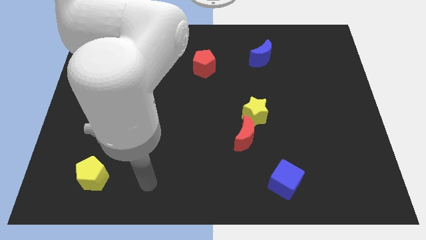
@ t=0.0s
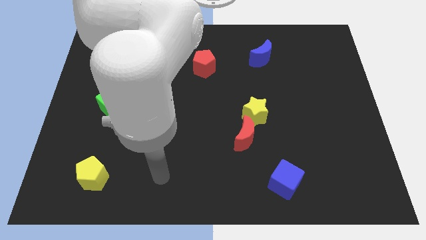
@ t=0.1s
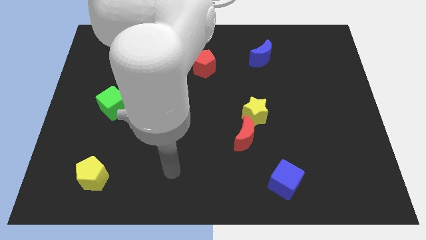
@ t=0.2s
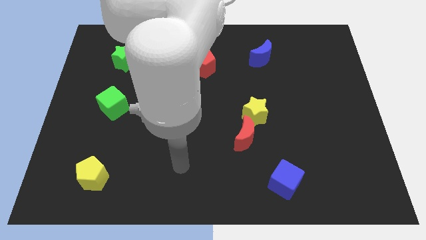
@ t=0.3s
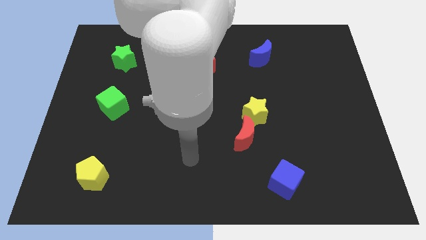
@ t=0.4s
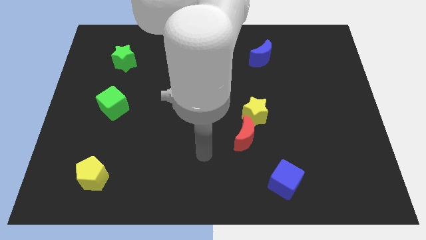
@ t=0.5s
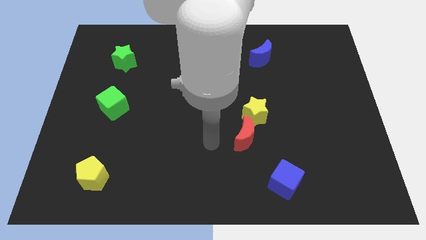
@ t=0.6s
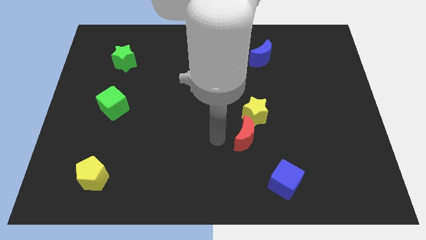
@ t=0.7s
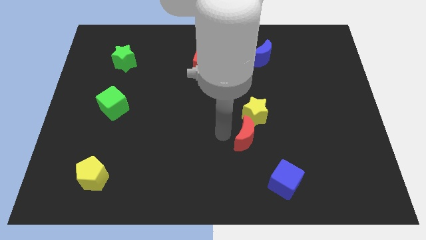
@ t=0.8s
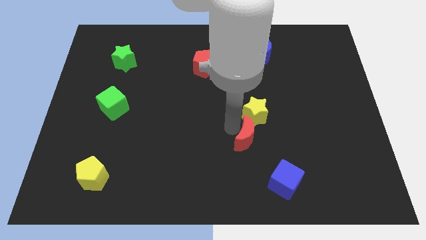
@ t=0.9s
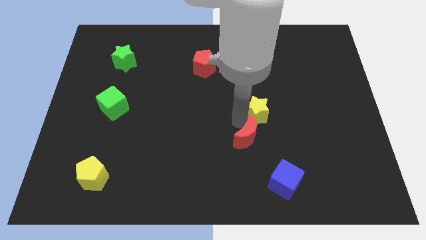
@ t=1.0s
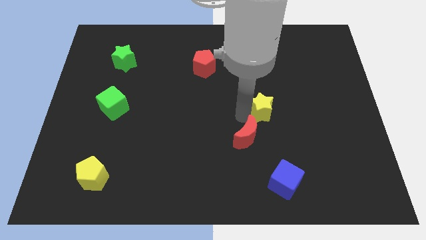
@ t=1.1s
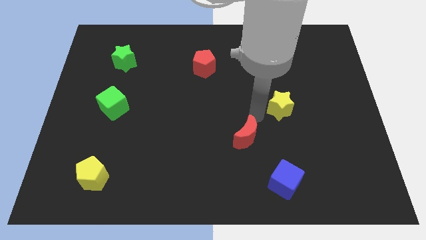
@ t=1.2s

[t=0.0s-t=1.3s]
move the red moon away from the yellow star

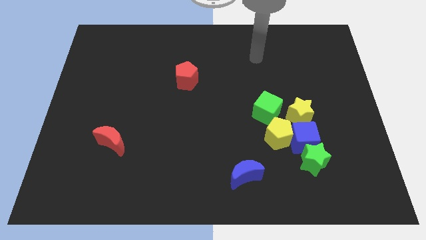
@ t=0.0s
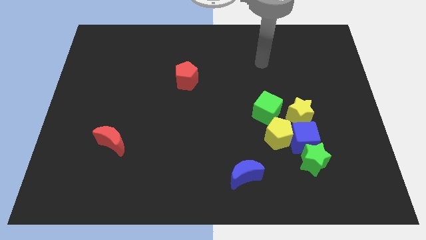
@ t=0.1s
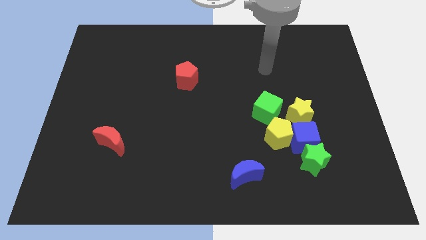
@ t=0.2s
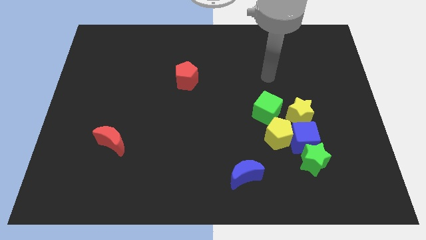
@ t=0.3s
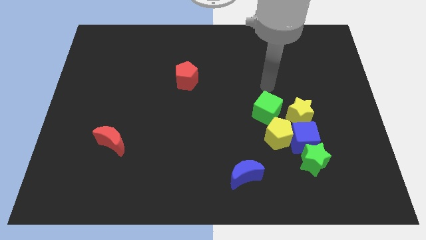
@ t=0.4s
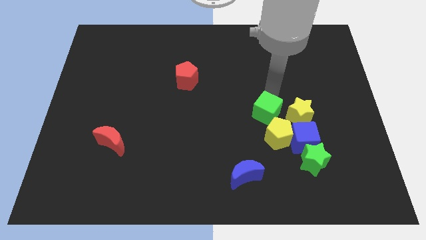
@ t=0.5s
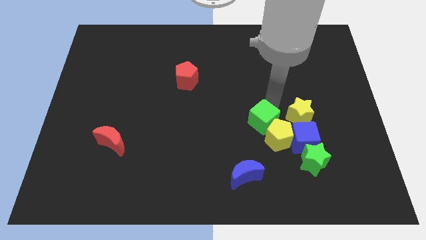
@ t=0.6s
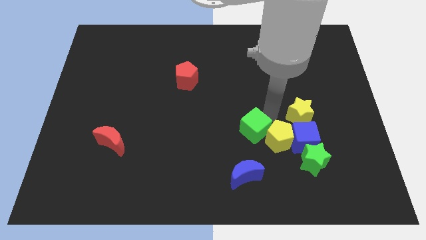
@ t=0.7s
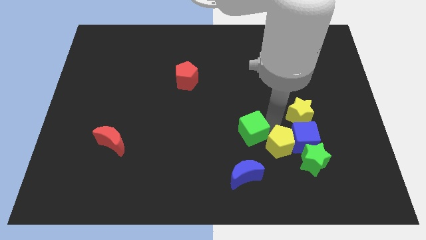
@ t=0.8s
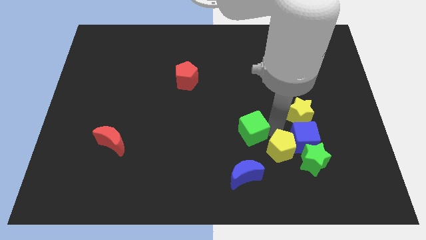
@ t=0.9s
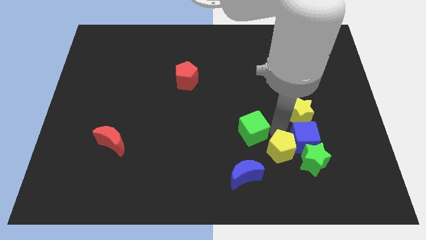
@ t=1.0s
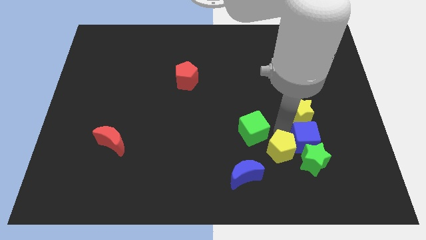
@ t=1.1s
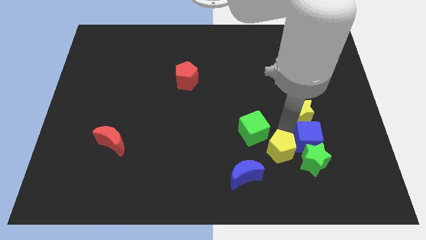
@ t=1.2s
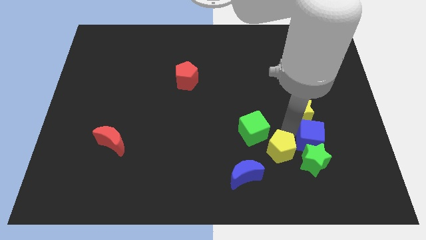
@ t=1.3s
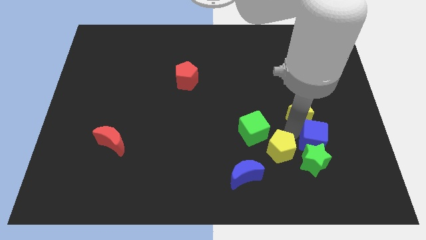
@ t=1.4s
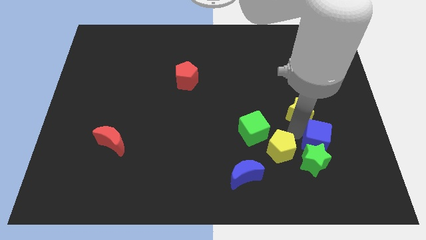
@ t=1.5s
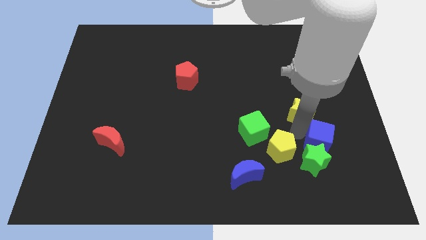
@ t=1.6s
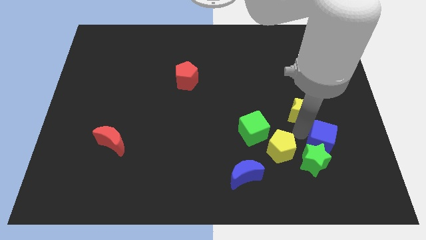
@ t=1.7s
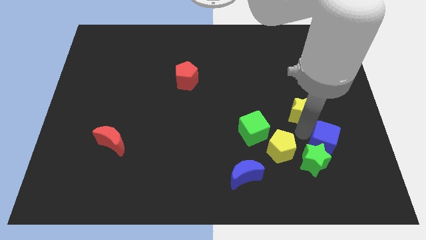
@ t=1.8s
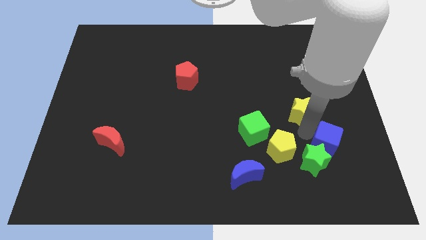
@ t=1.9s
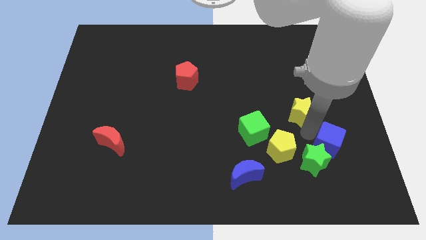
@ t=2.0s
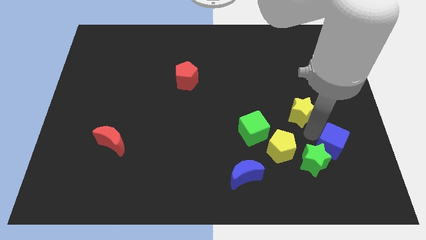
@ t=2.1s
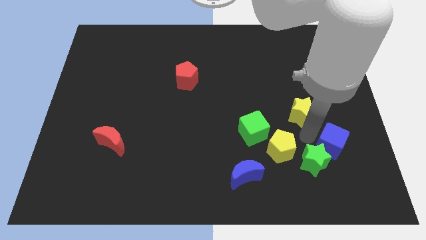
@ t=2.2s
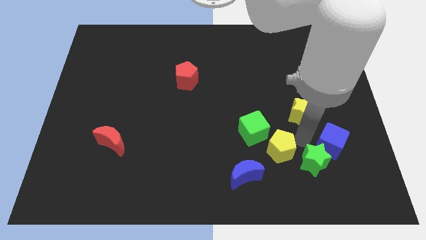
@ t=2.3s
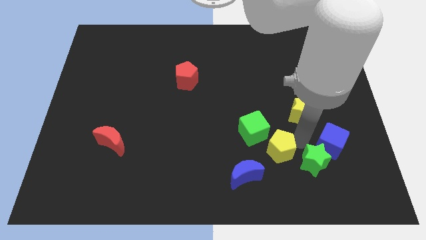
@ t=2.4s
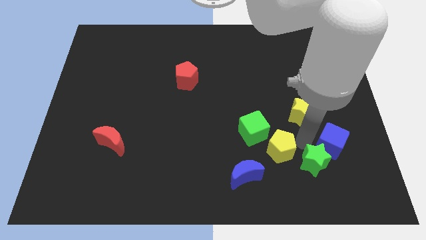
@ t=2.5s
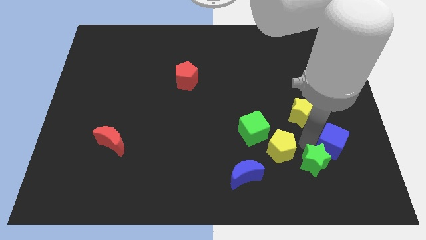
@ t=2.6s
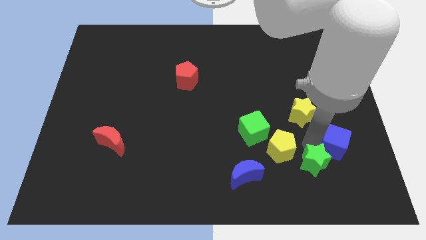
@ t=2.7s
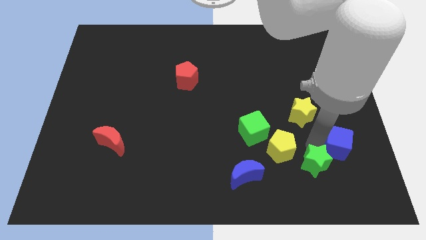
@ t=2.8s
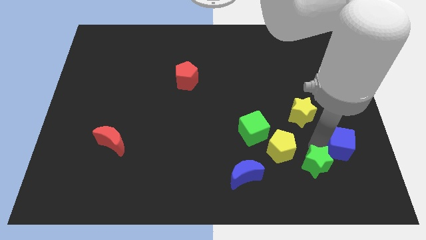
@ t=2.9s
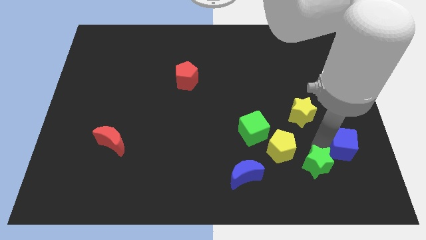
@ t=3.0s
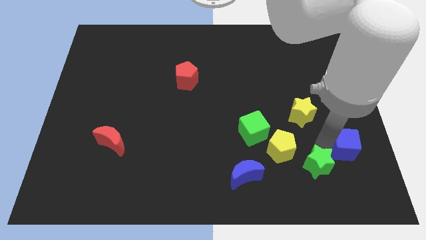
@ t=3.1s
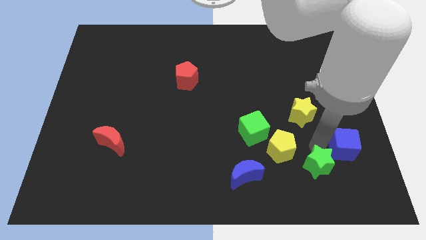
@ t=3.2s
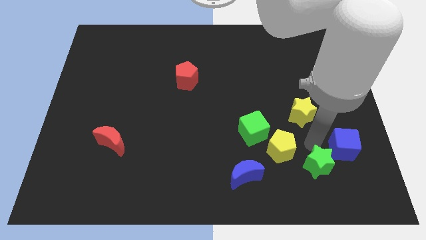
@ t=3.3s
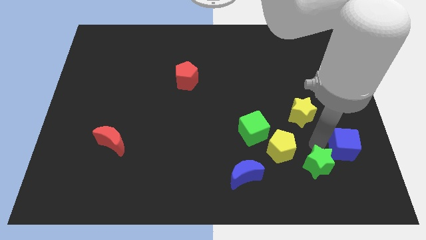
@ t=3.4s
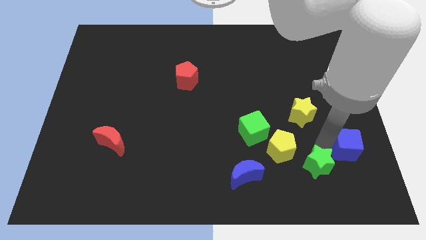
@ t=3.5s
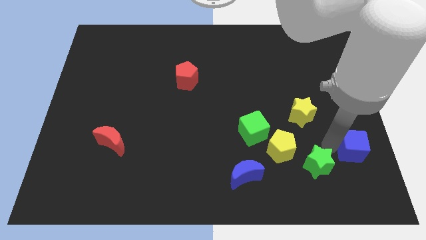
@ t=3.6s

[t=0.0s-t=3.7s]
separate the blue cube from the clump

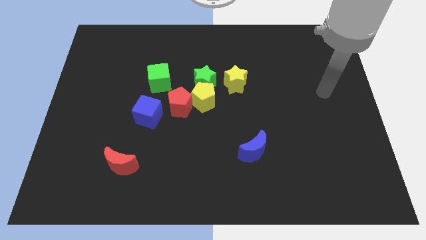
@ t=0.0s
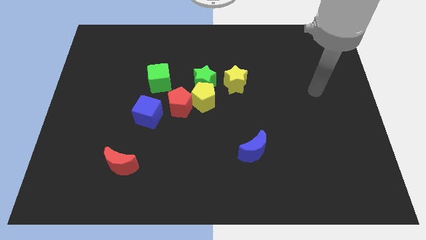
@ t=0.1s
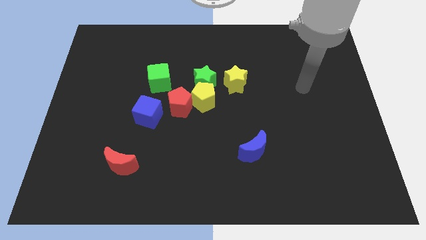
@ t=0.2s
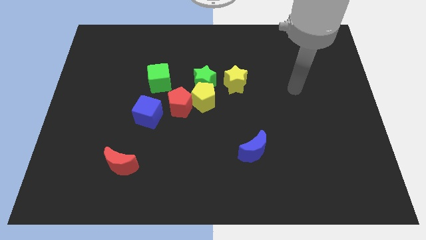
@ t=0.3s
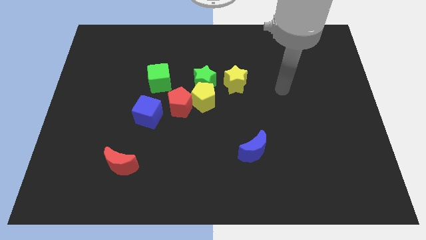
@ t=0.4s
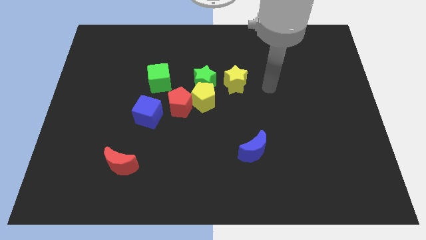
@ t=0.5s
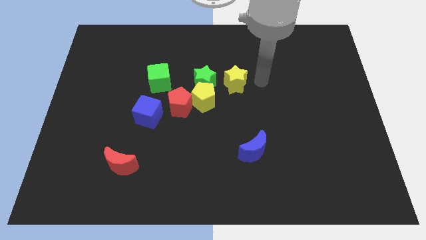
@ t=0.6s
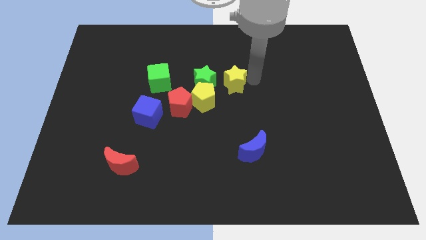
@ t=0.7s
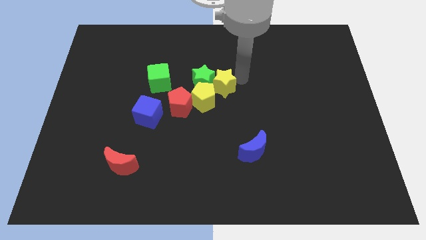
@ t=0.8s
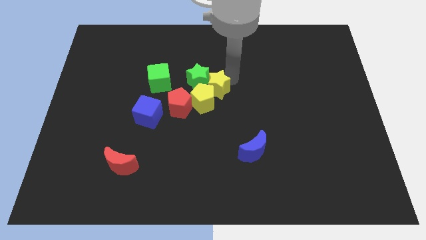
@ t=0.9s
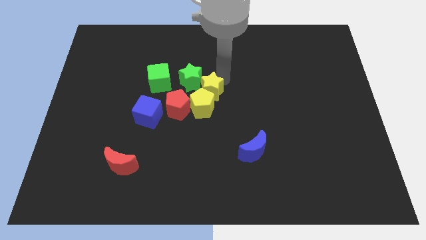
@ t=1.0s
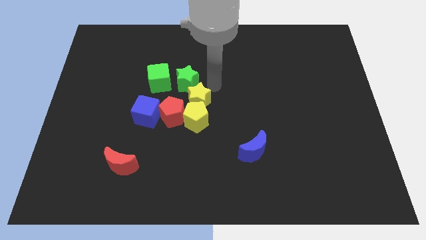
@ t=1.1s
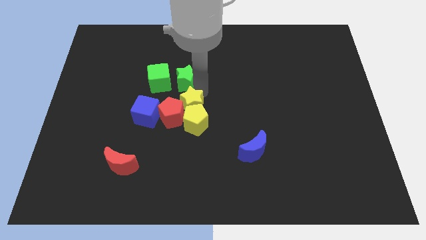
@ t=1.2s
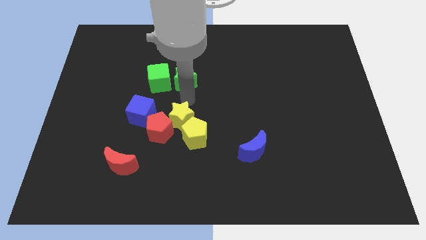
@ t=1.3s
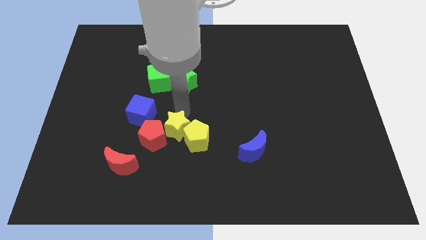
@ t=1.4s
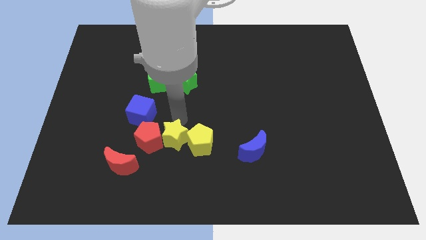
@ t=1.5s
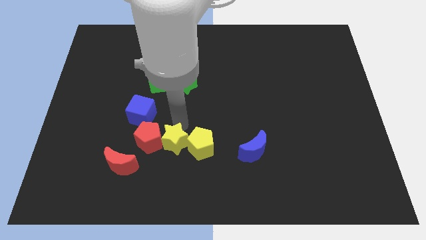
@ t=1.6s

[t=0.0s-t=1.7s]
move the yellow pentagon away from the group

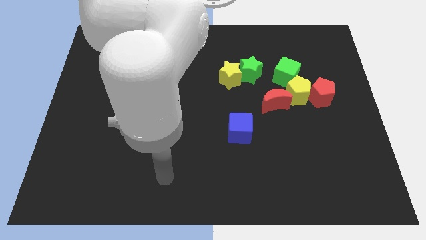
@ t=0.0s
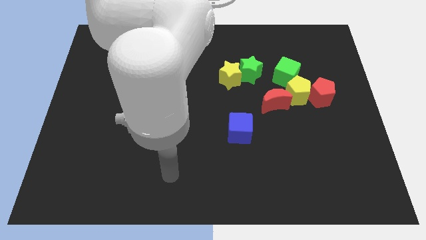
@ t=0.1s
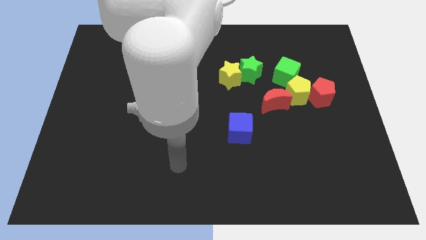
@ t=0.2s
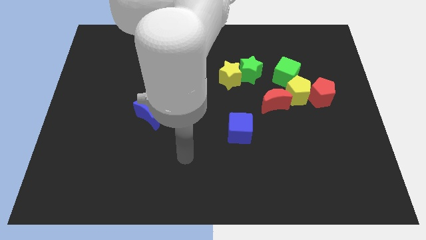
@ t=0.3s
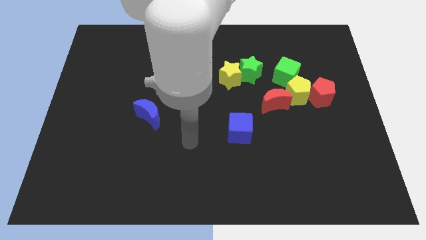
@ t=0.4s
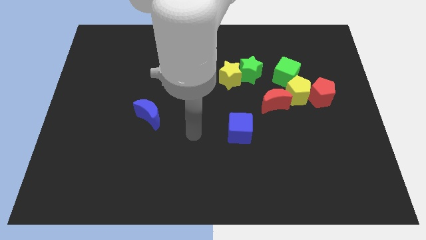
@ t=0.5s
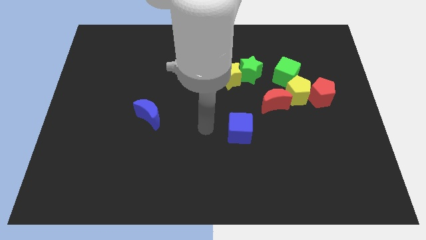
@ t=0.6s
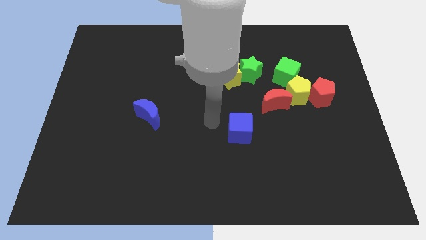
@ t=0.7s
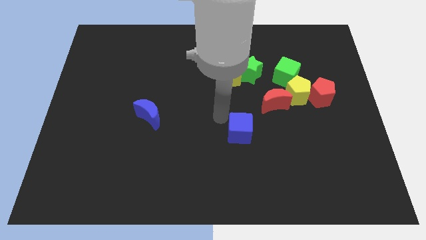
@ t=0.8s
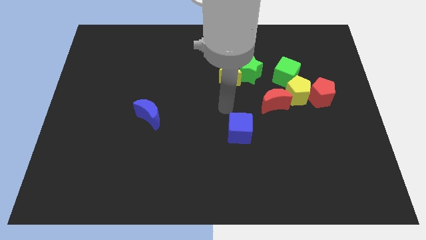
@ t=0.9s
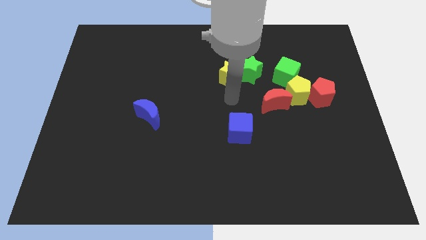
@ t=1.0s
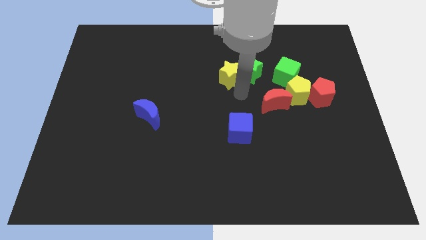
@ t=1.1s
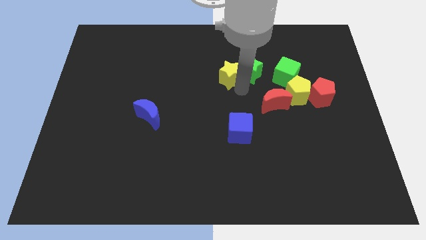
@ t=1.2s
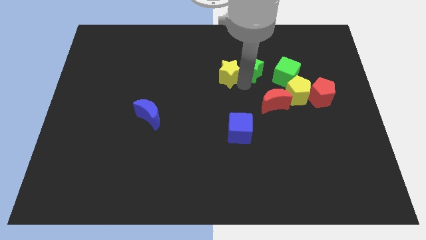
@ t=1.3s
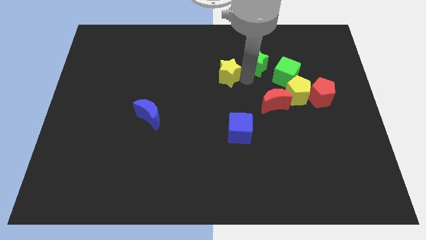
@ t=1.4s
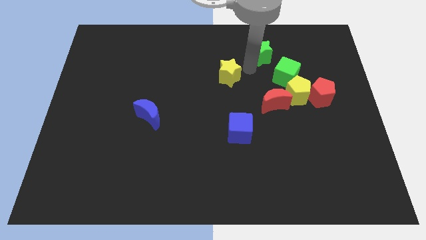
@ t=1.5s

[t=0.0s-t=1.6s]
pull the yellow star apart from the green star

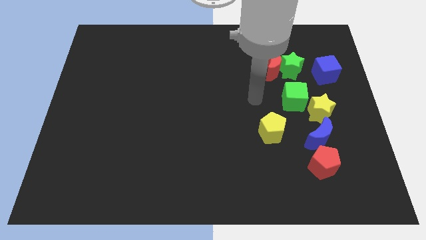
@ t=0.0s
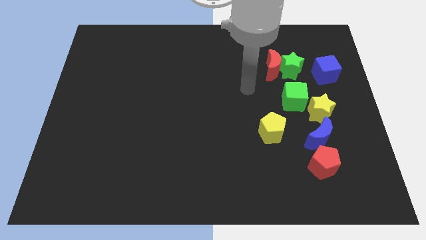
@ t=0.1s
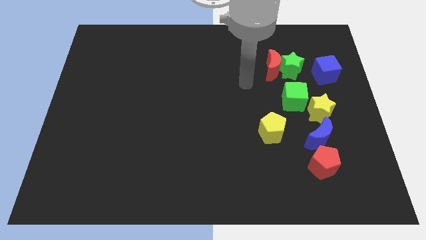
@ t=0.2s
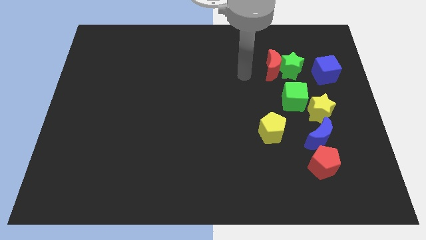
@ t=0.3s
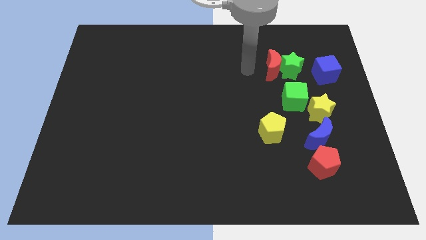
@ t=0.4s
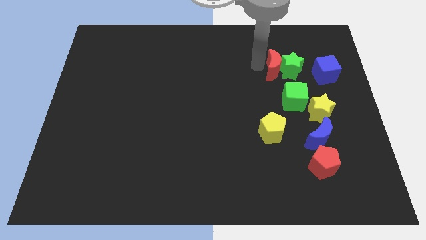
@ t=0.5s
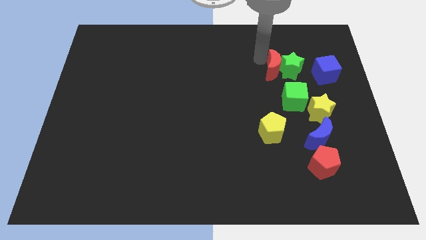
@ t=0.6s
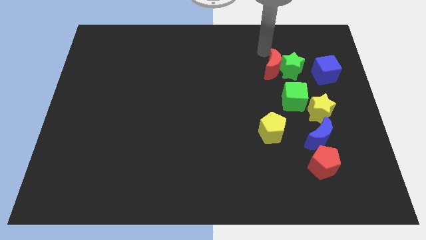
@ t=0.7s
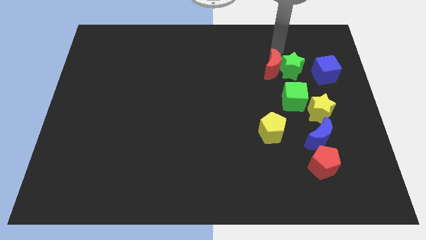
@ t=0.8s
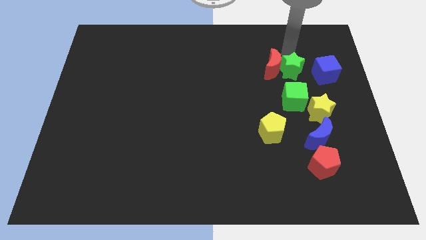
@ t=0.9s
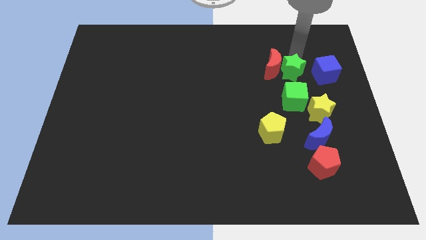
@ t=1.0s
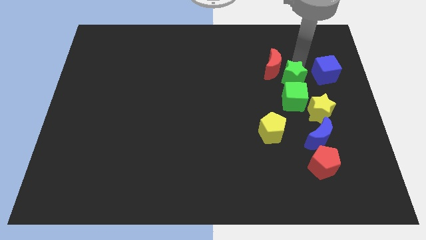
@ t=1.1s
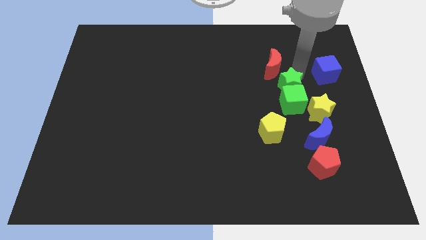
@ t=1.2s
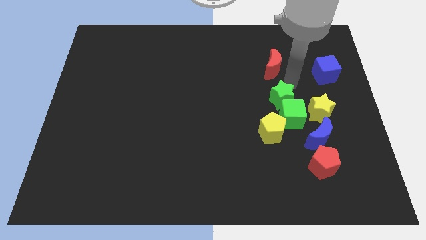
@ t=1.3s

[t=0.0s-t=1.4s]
pull the red moon apart from the green star
